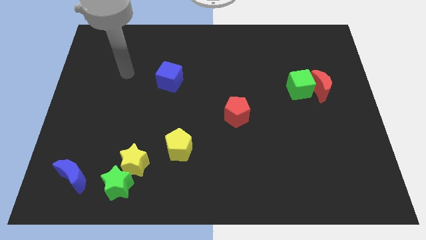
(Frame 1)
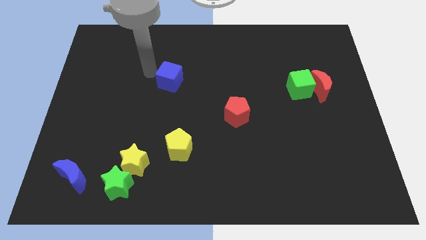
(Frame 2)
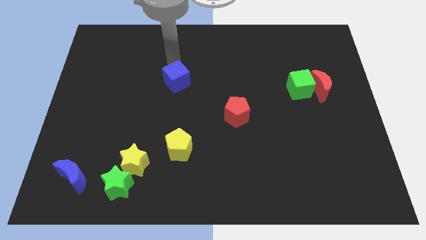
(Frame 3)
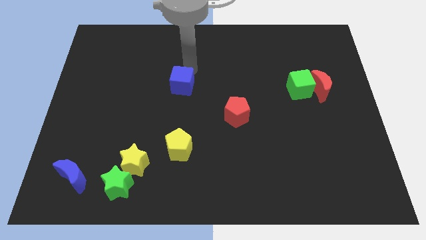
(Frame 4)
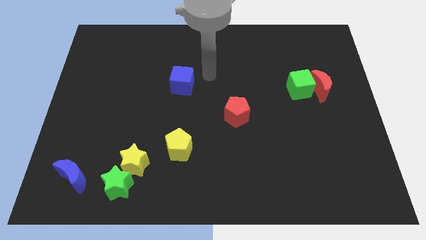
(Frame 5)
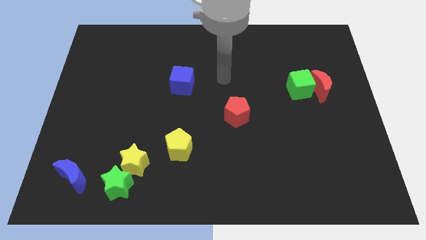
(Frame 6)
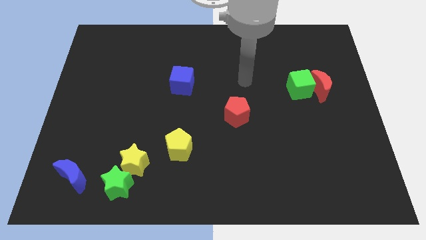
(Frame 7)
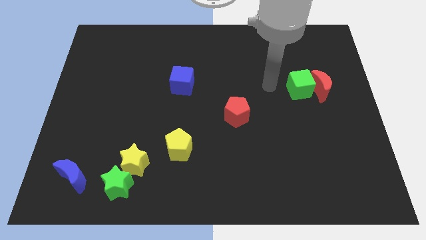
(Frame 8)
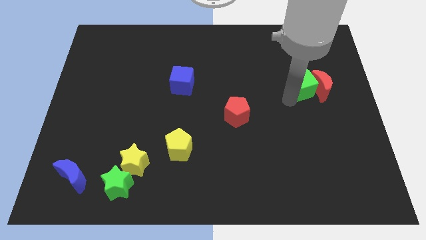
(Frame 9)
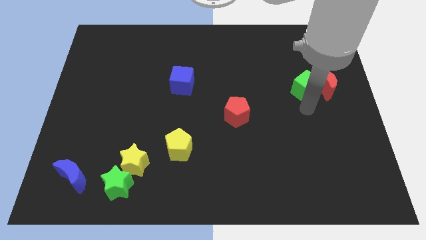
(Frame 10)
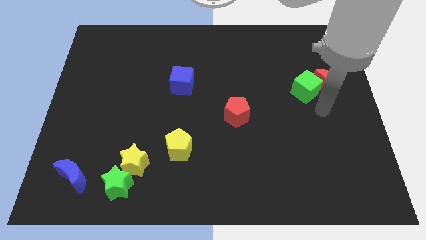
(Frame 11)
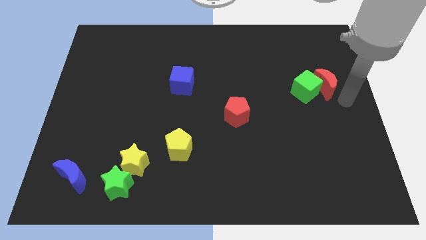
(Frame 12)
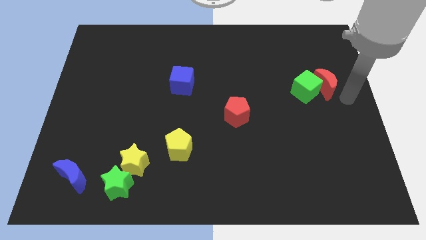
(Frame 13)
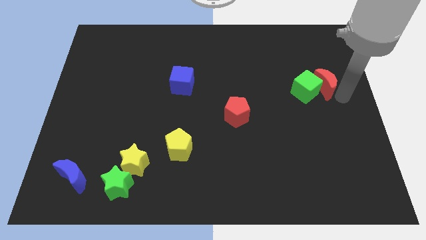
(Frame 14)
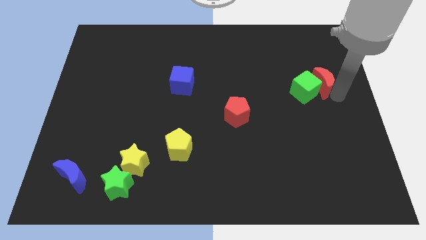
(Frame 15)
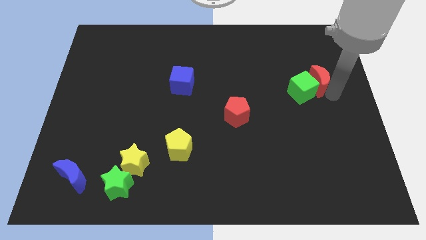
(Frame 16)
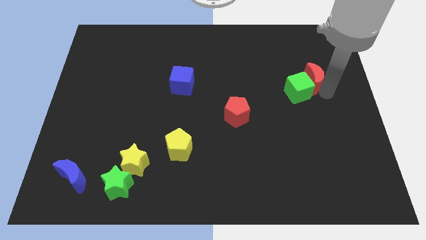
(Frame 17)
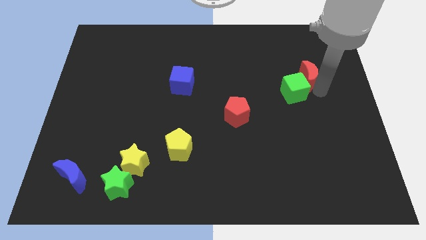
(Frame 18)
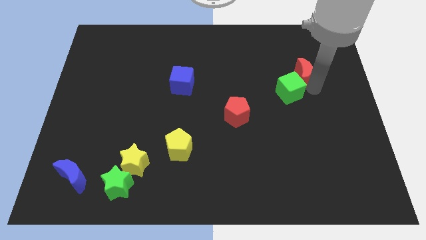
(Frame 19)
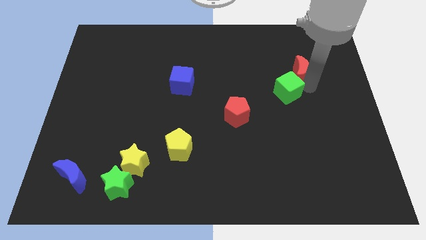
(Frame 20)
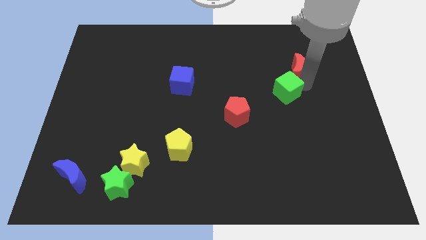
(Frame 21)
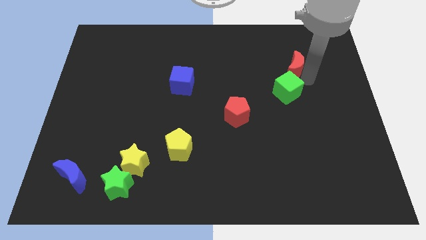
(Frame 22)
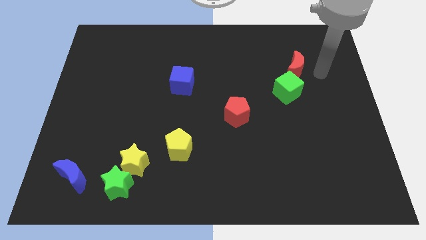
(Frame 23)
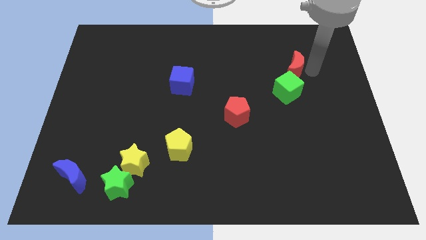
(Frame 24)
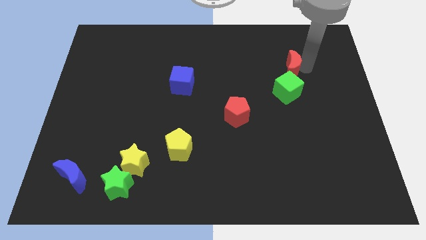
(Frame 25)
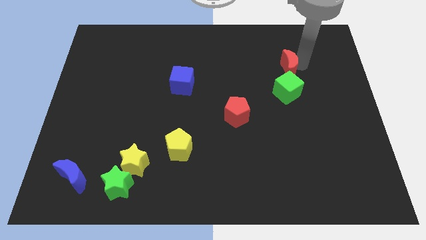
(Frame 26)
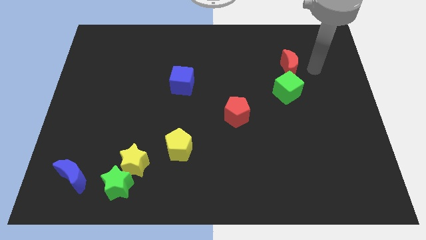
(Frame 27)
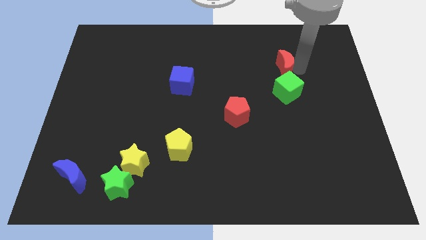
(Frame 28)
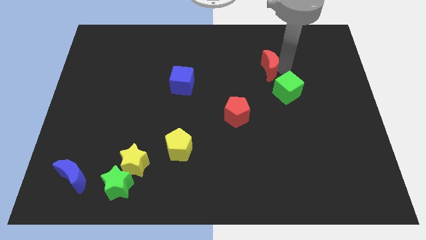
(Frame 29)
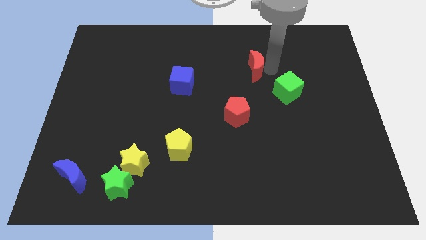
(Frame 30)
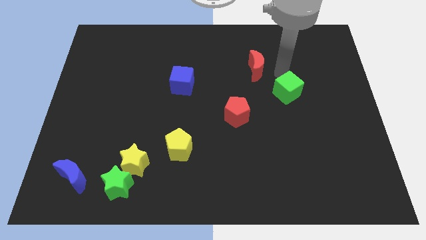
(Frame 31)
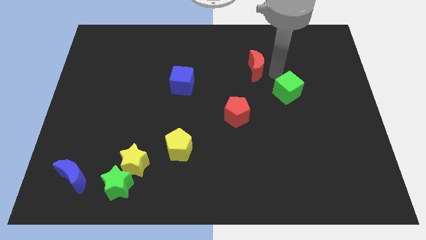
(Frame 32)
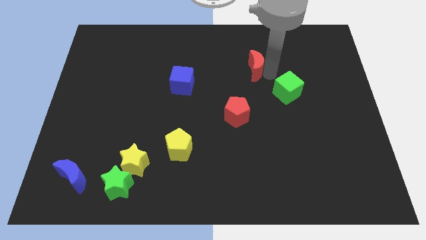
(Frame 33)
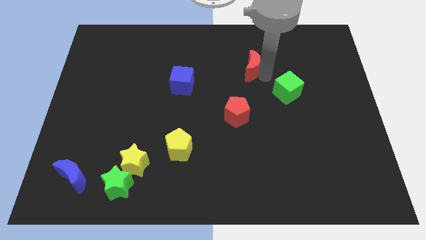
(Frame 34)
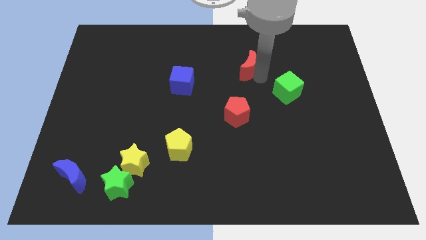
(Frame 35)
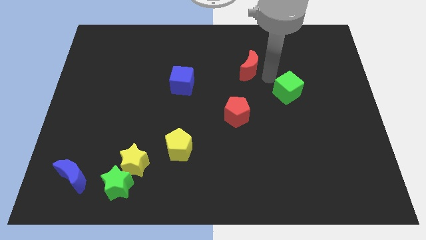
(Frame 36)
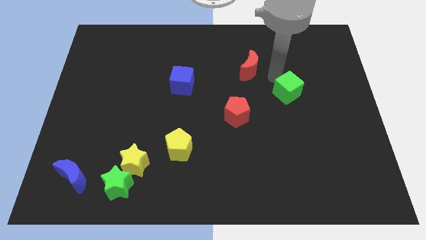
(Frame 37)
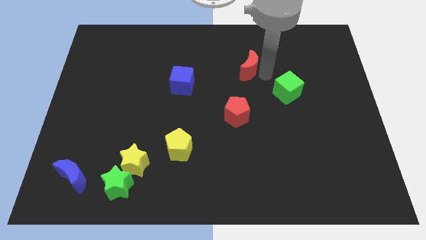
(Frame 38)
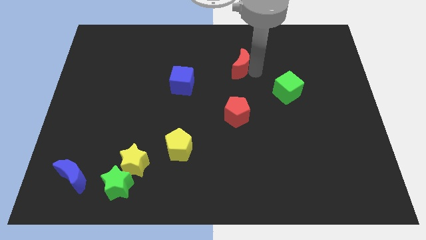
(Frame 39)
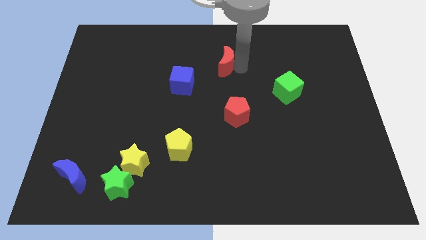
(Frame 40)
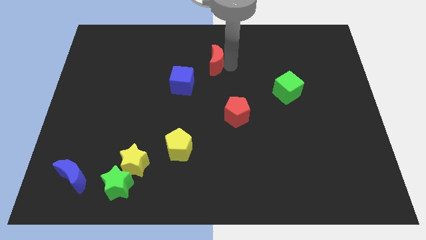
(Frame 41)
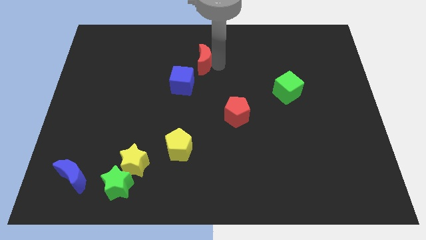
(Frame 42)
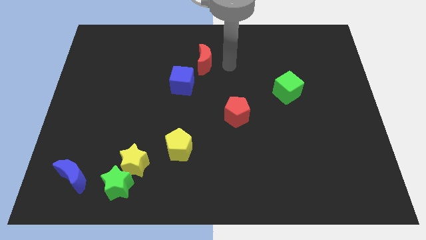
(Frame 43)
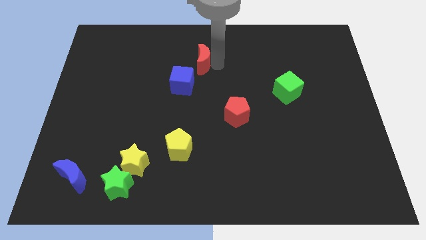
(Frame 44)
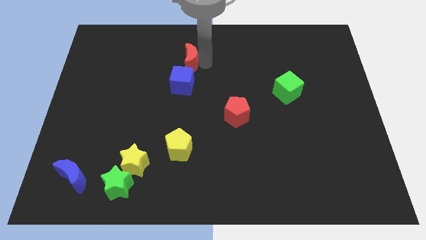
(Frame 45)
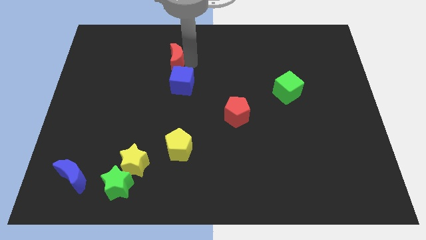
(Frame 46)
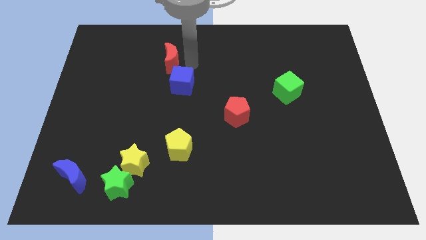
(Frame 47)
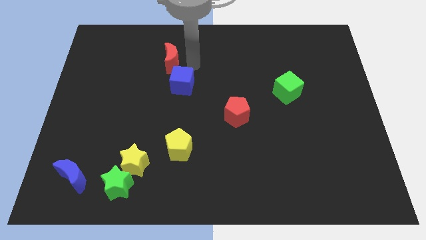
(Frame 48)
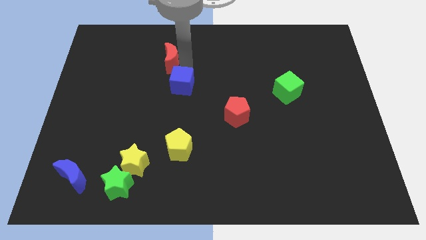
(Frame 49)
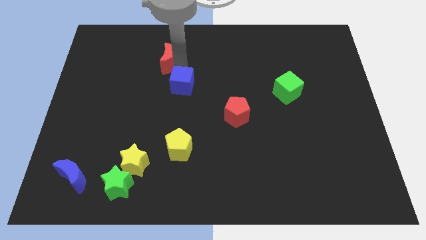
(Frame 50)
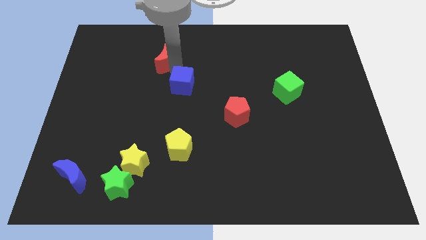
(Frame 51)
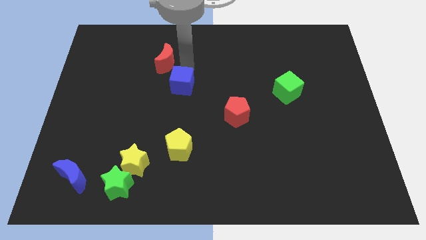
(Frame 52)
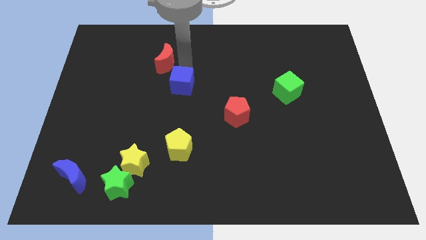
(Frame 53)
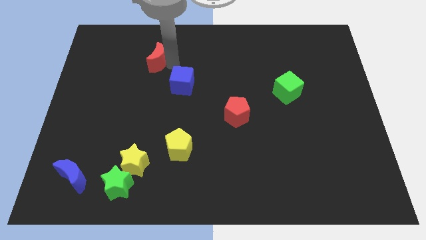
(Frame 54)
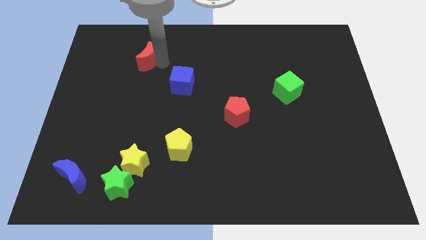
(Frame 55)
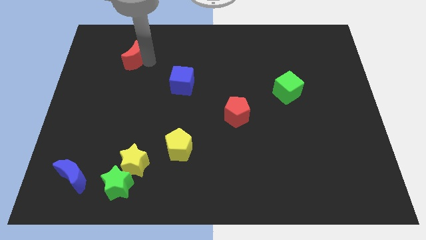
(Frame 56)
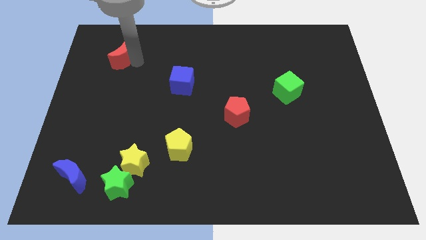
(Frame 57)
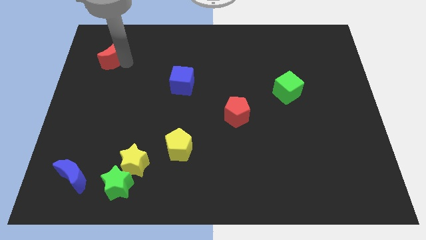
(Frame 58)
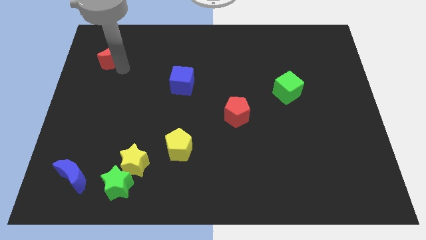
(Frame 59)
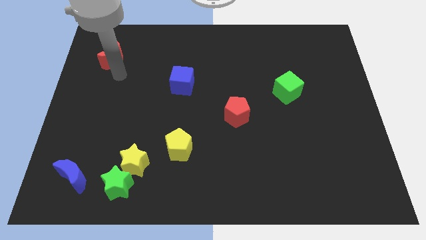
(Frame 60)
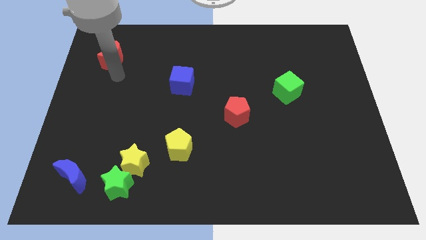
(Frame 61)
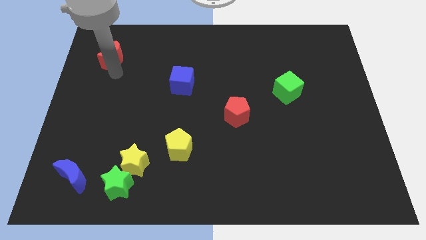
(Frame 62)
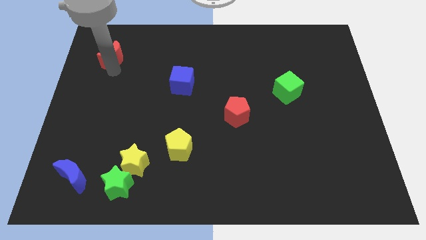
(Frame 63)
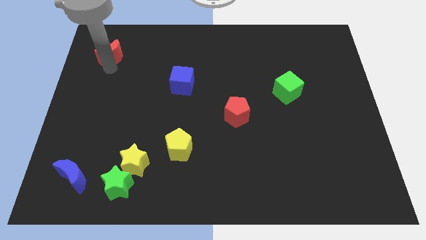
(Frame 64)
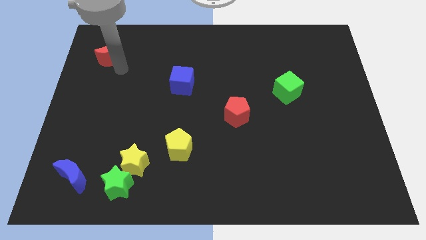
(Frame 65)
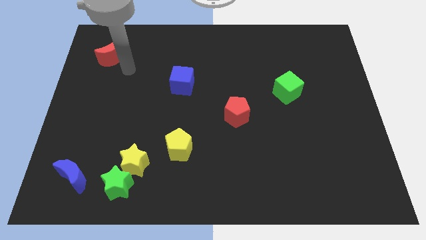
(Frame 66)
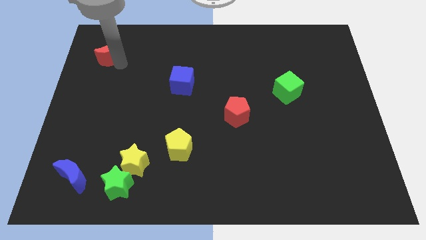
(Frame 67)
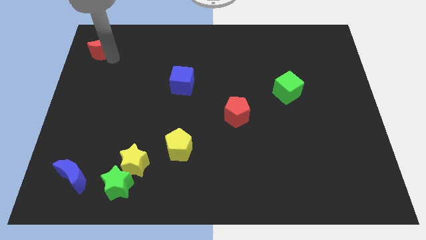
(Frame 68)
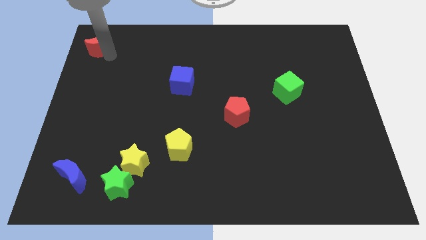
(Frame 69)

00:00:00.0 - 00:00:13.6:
slide the red moon to the top left
